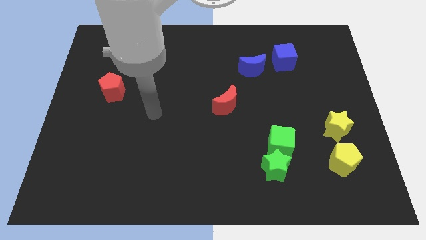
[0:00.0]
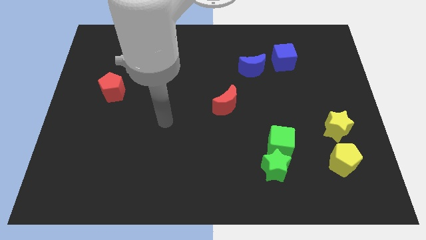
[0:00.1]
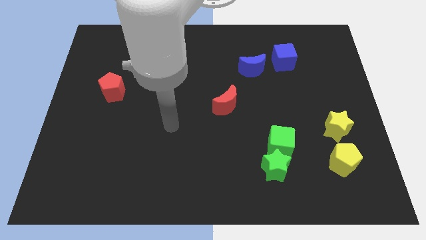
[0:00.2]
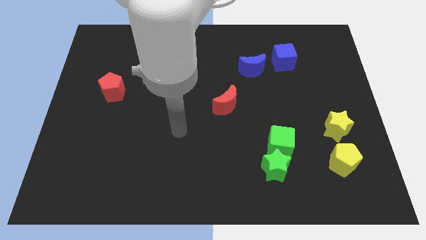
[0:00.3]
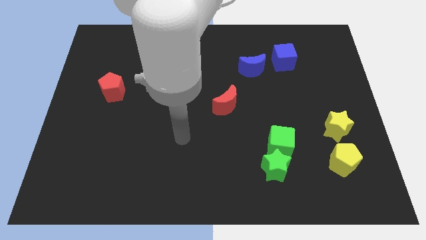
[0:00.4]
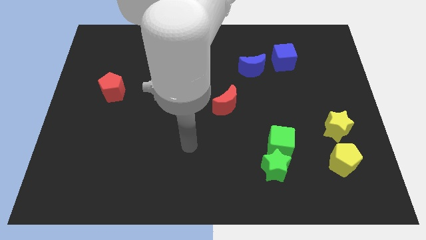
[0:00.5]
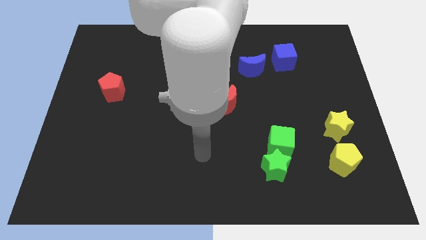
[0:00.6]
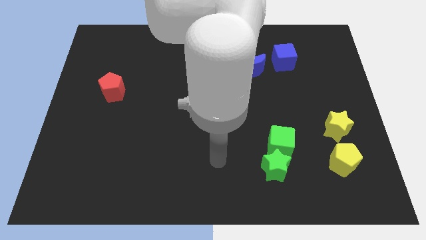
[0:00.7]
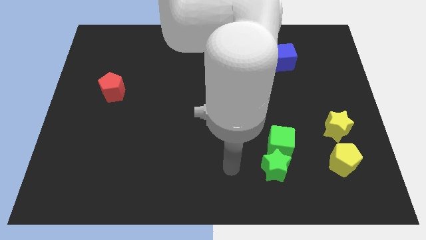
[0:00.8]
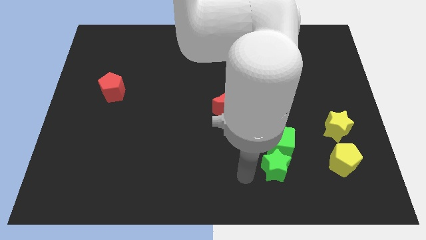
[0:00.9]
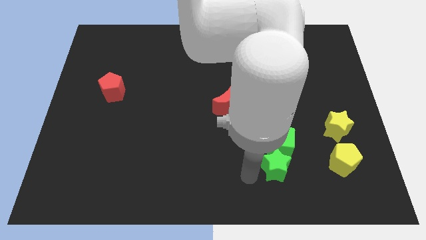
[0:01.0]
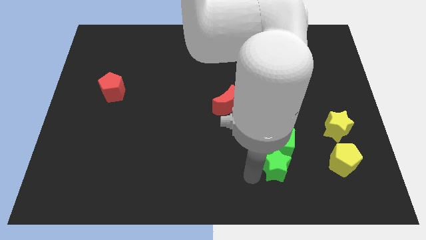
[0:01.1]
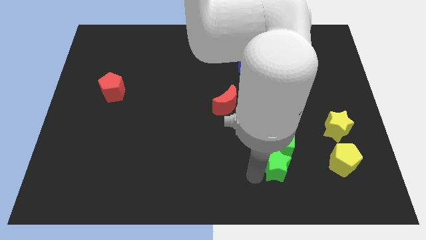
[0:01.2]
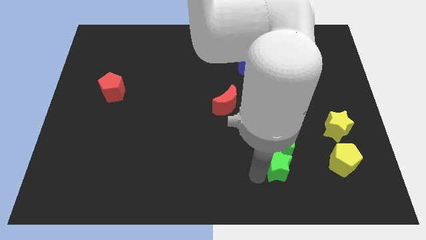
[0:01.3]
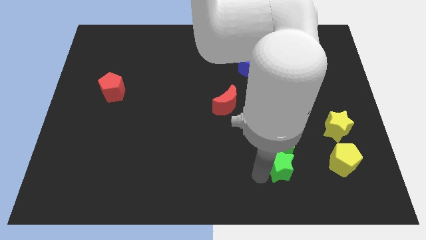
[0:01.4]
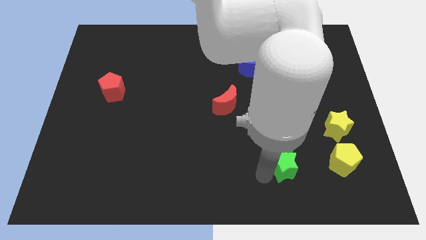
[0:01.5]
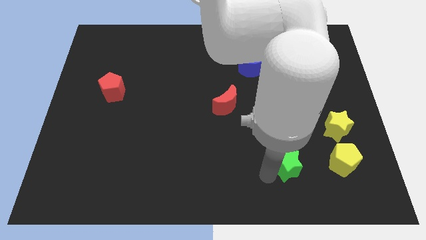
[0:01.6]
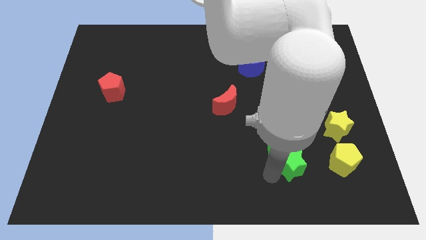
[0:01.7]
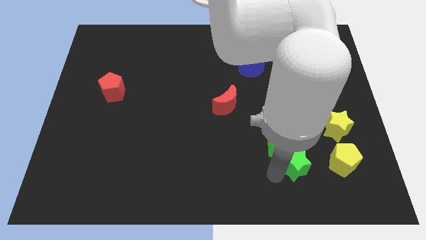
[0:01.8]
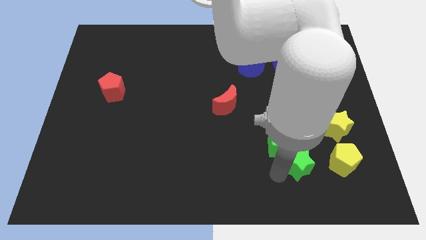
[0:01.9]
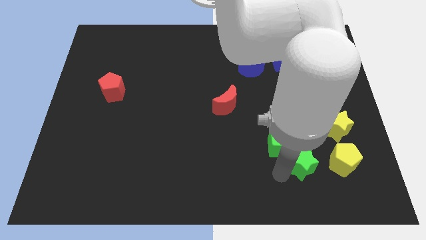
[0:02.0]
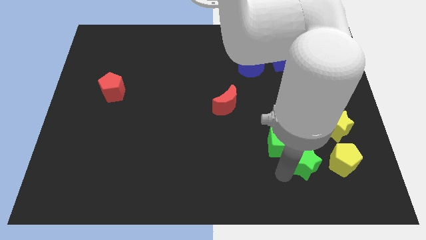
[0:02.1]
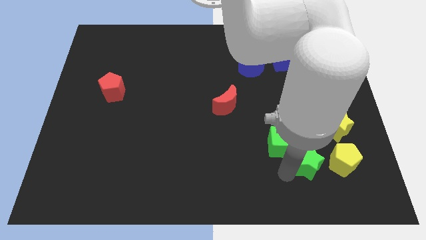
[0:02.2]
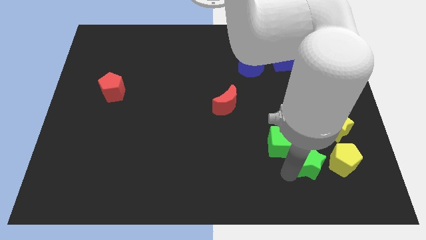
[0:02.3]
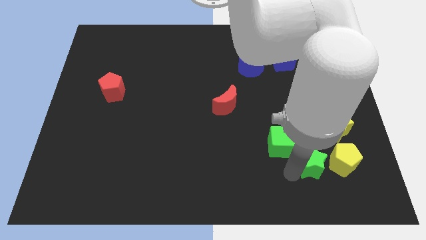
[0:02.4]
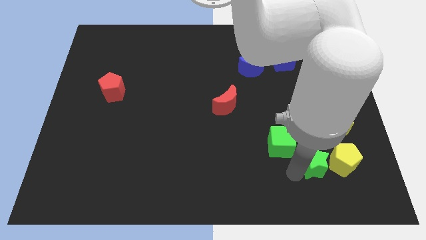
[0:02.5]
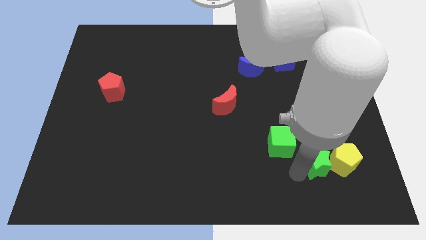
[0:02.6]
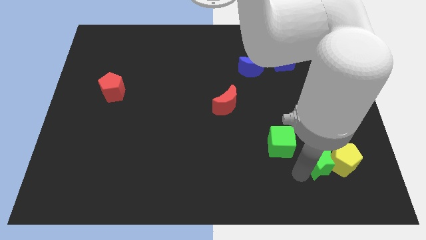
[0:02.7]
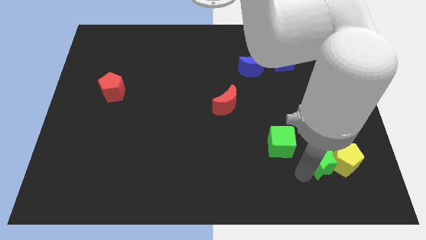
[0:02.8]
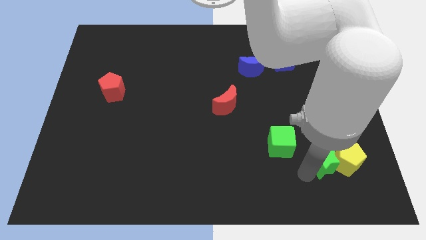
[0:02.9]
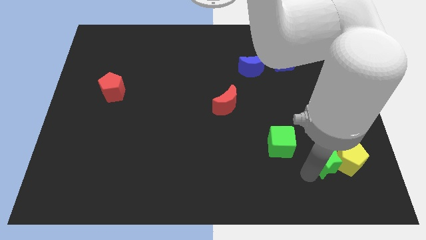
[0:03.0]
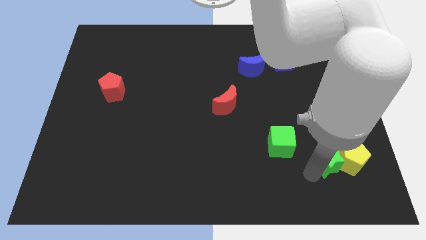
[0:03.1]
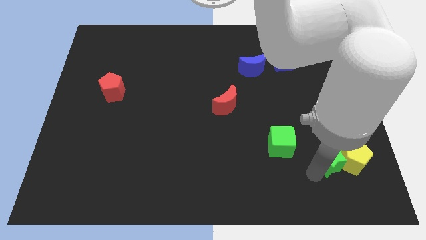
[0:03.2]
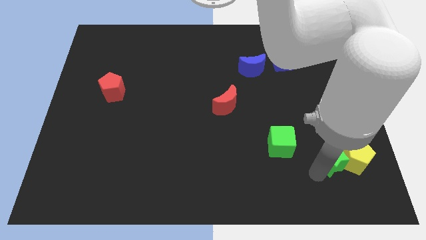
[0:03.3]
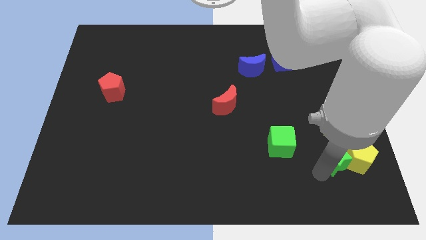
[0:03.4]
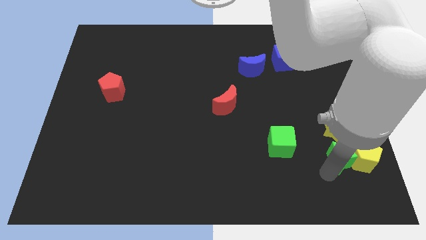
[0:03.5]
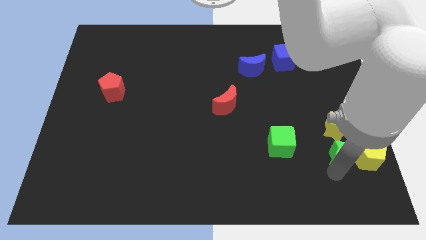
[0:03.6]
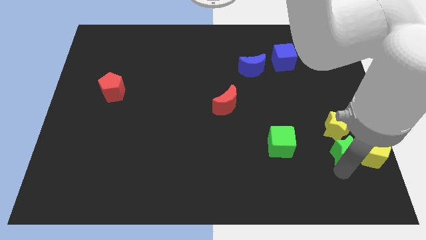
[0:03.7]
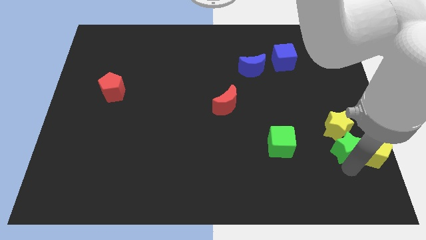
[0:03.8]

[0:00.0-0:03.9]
move the green star towards the yellow star

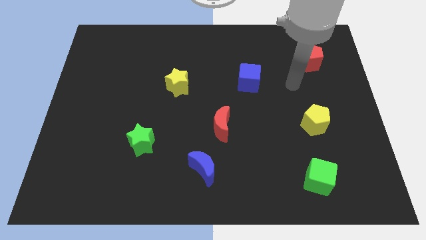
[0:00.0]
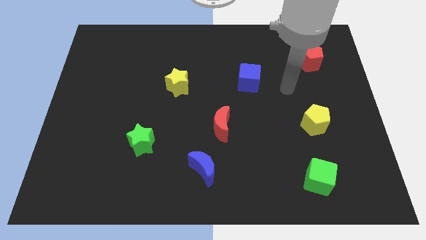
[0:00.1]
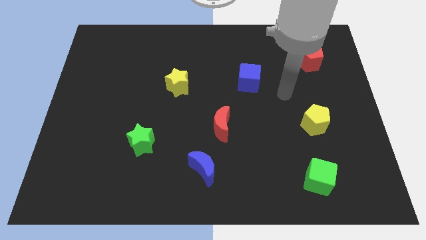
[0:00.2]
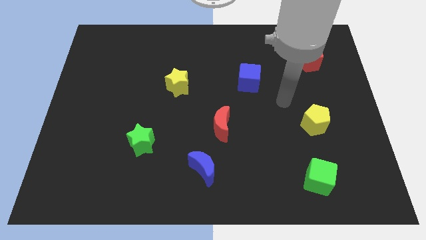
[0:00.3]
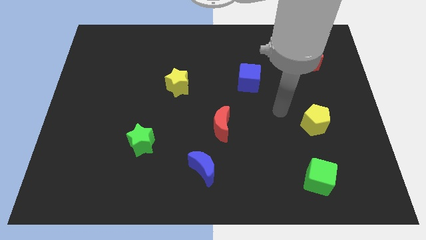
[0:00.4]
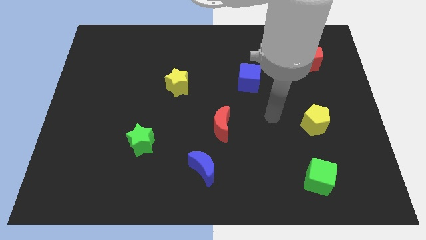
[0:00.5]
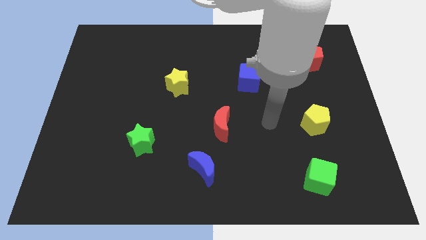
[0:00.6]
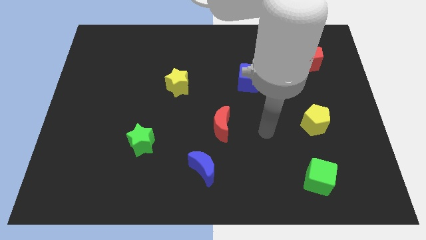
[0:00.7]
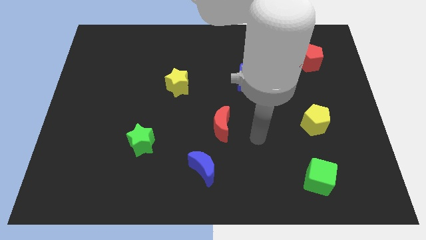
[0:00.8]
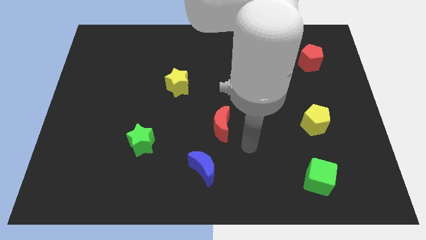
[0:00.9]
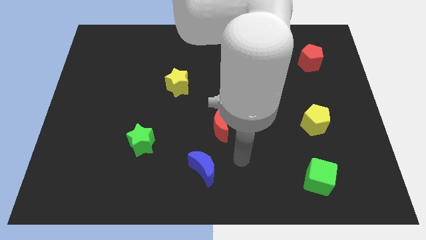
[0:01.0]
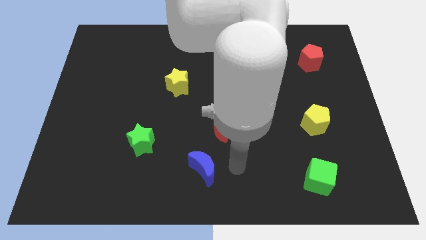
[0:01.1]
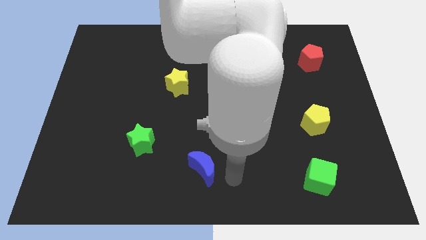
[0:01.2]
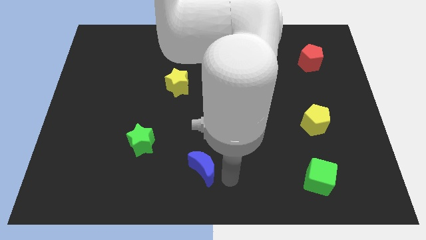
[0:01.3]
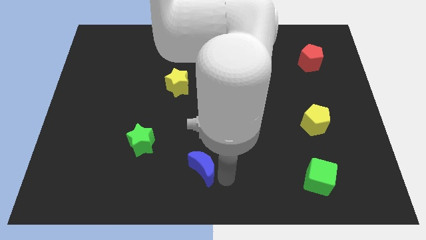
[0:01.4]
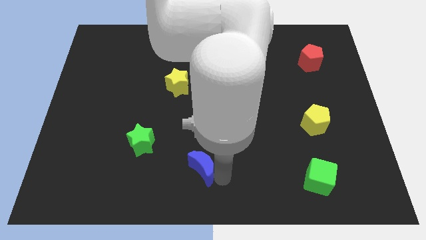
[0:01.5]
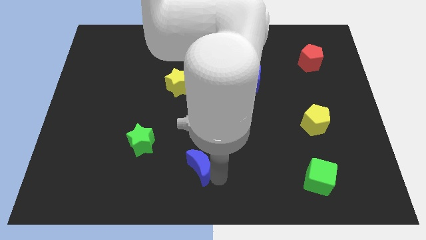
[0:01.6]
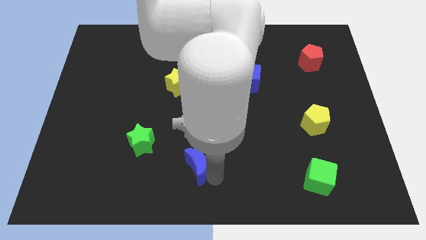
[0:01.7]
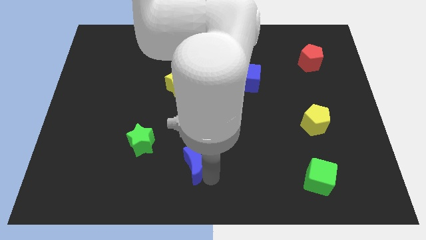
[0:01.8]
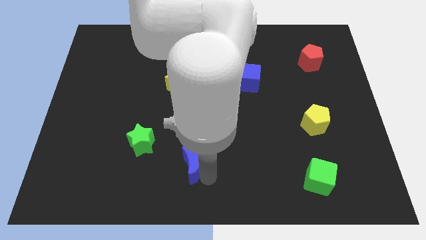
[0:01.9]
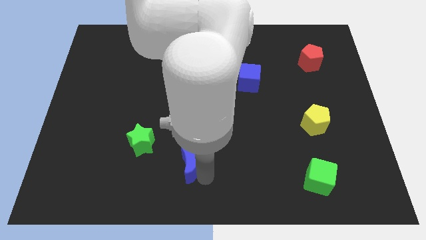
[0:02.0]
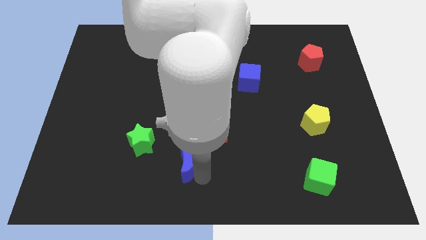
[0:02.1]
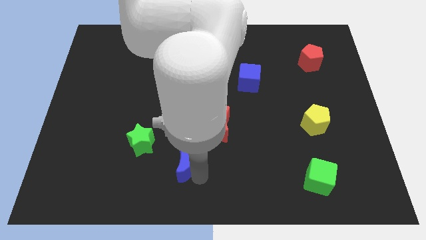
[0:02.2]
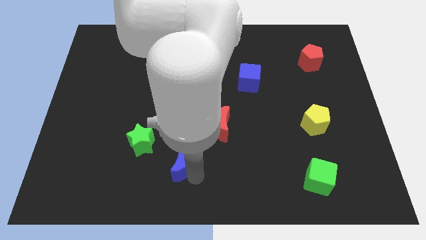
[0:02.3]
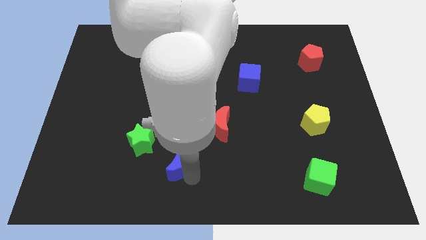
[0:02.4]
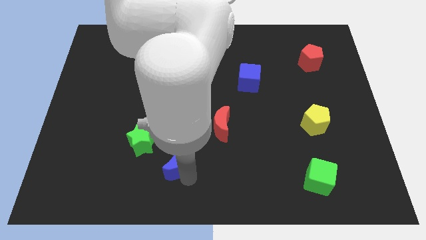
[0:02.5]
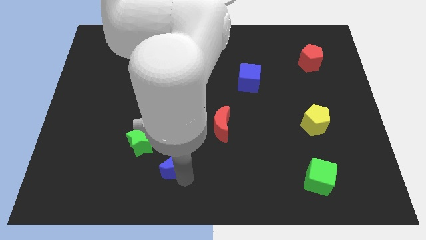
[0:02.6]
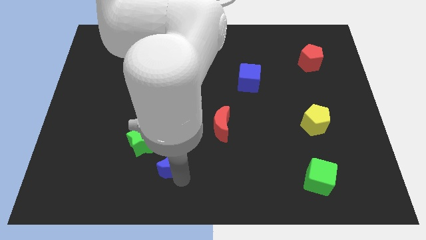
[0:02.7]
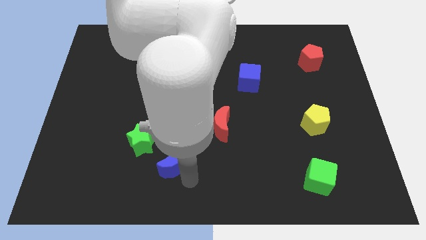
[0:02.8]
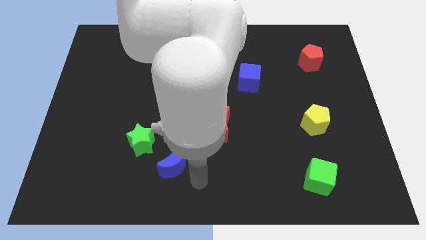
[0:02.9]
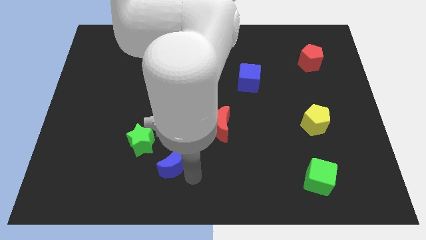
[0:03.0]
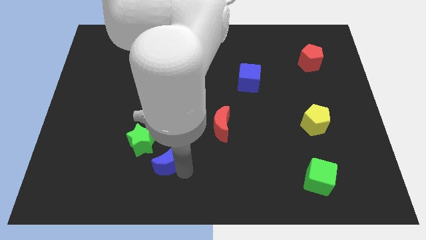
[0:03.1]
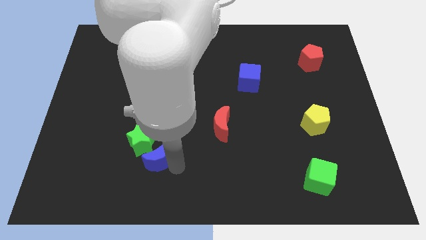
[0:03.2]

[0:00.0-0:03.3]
move the blue moon next to the green star

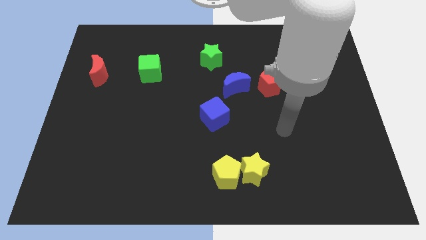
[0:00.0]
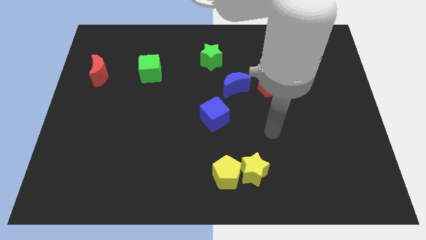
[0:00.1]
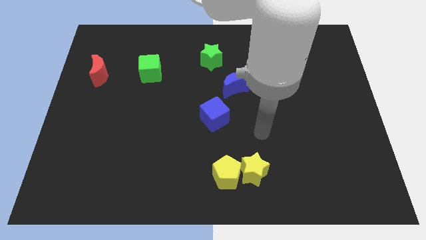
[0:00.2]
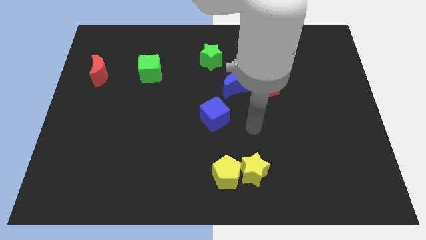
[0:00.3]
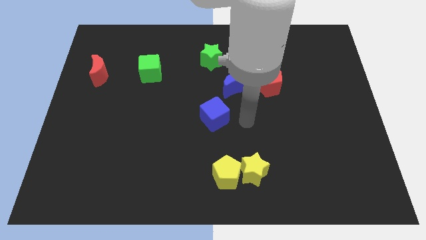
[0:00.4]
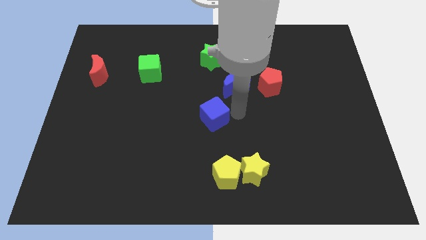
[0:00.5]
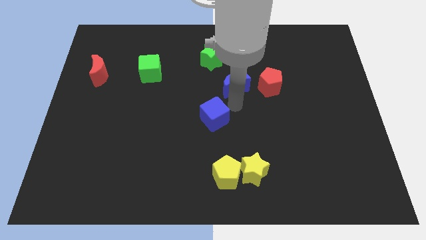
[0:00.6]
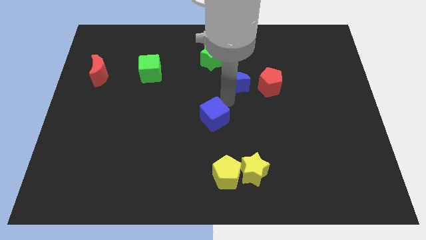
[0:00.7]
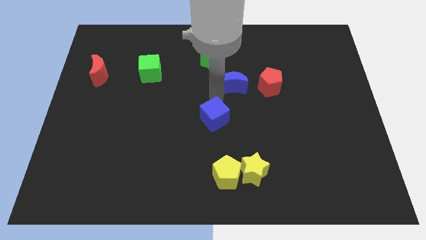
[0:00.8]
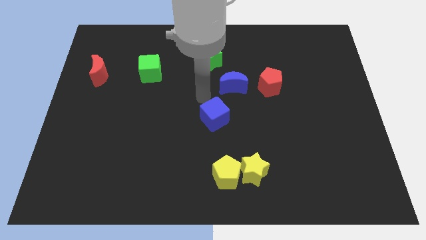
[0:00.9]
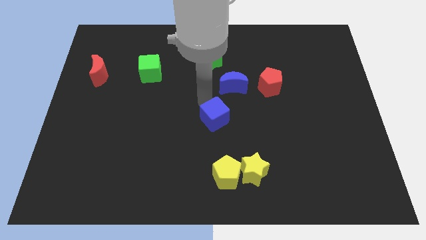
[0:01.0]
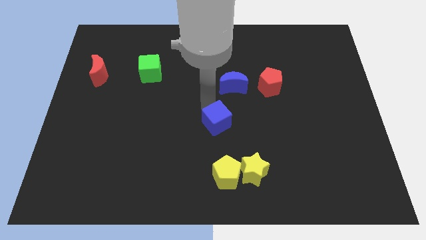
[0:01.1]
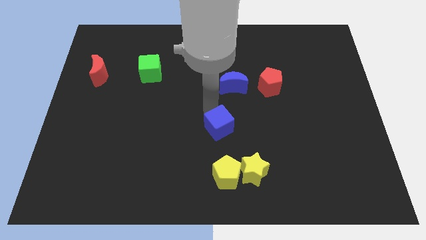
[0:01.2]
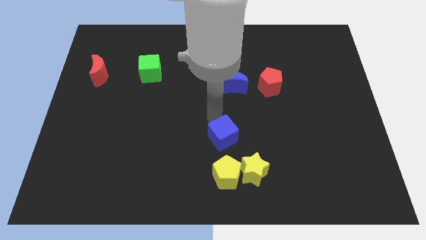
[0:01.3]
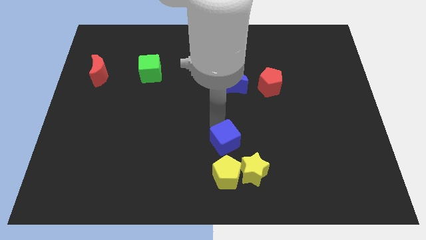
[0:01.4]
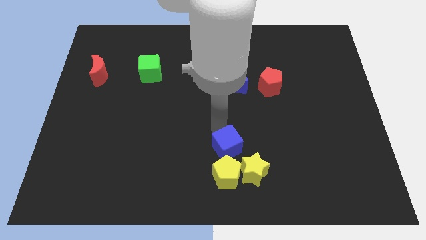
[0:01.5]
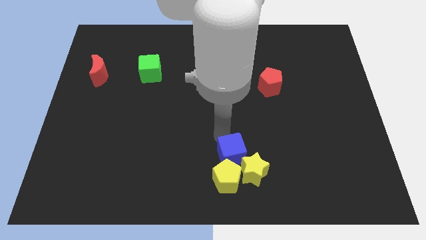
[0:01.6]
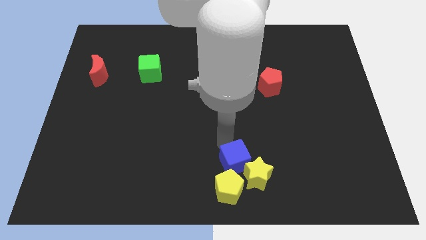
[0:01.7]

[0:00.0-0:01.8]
move the blue cube next to the yellow star
